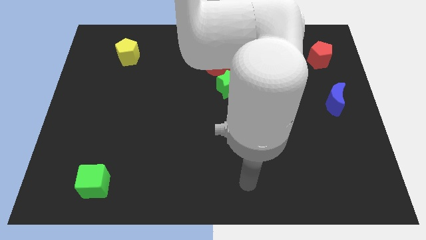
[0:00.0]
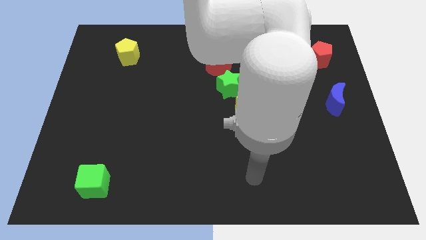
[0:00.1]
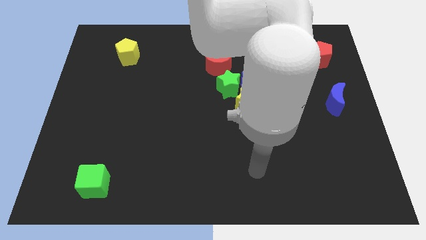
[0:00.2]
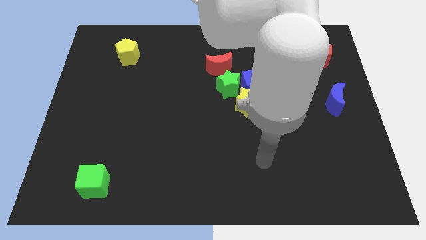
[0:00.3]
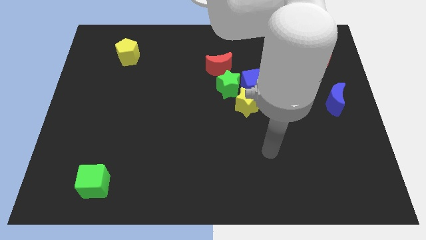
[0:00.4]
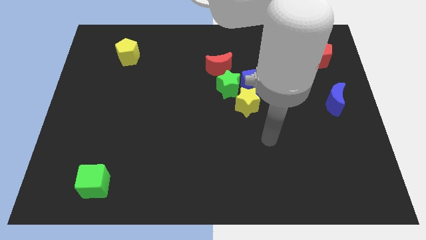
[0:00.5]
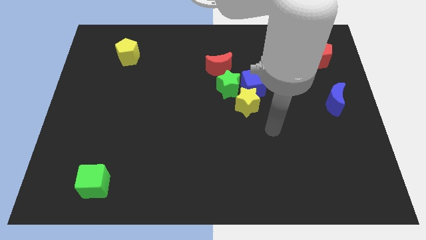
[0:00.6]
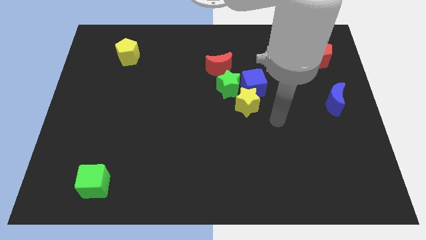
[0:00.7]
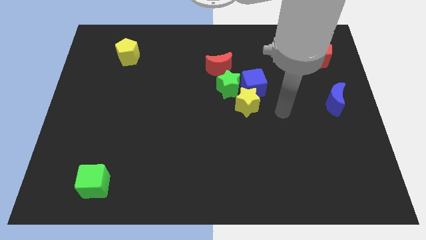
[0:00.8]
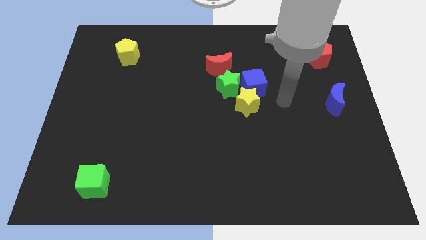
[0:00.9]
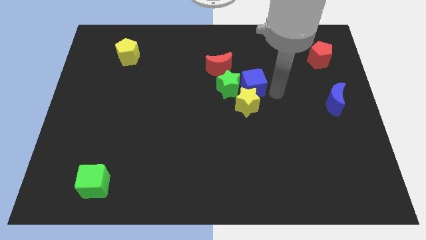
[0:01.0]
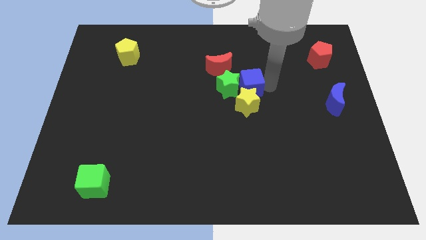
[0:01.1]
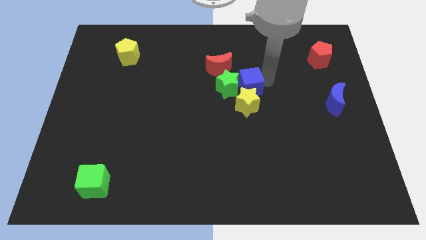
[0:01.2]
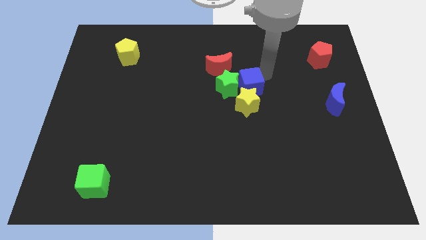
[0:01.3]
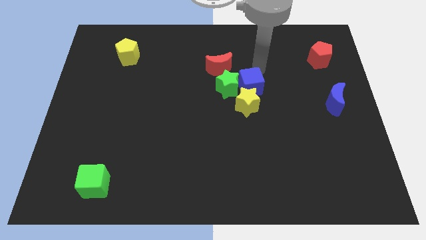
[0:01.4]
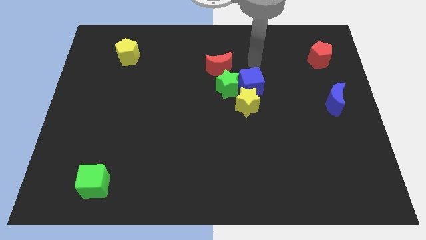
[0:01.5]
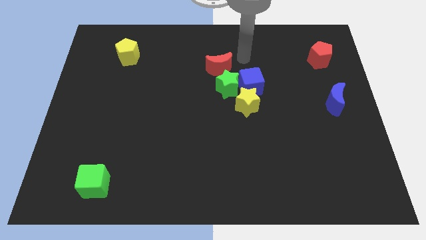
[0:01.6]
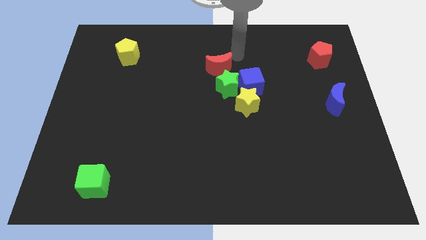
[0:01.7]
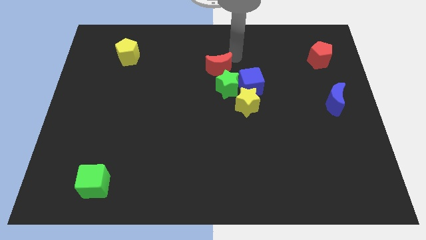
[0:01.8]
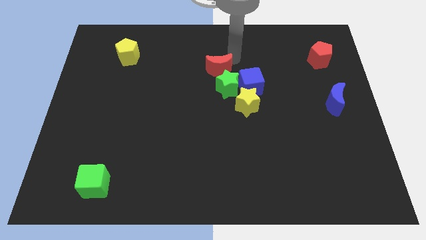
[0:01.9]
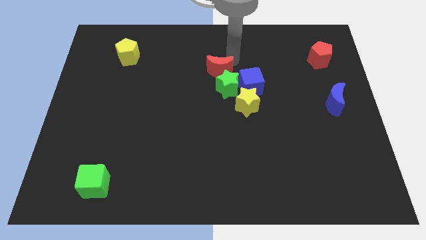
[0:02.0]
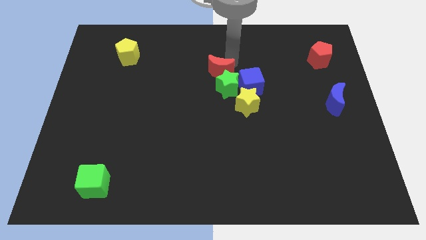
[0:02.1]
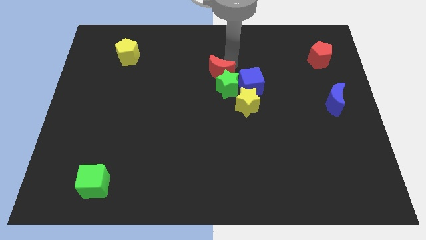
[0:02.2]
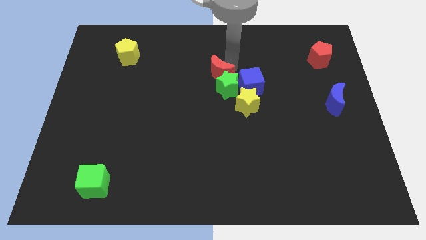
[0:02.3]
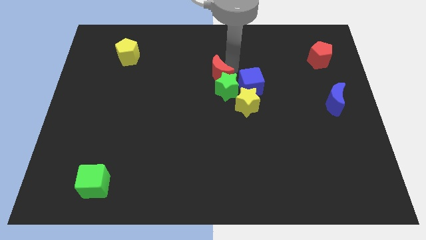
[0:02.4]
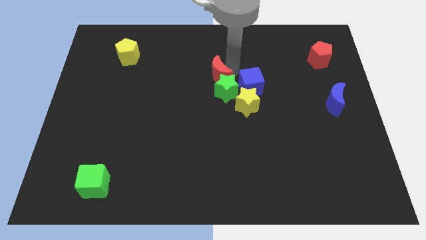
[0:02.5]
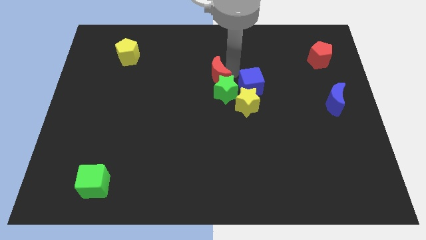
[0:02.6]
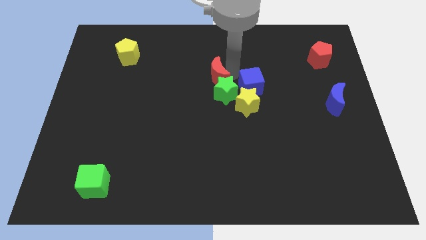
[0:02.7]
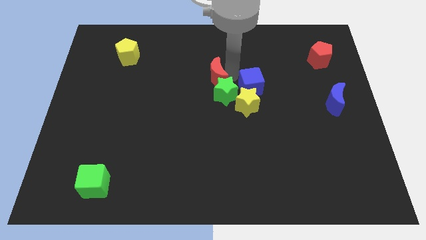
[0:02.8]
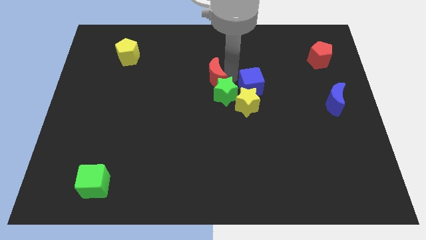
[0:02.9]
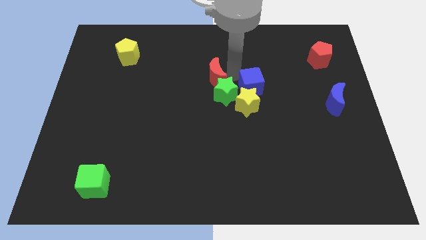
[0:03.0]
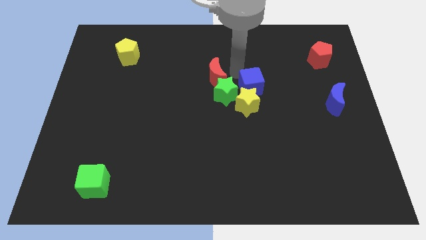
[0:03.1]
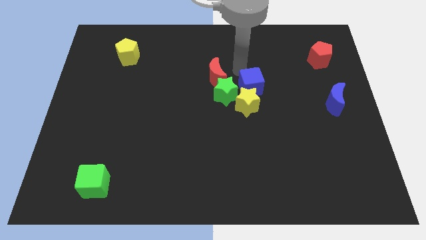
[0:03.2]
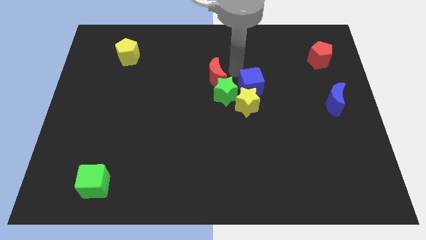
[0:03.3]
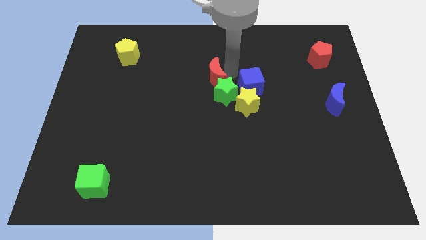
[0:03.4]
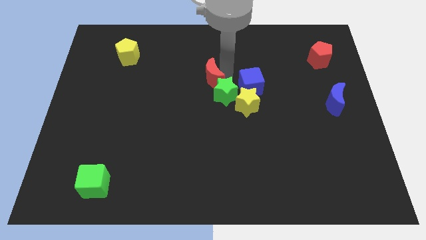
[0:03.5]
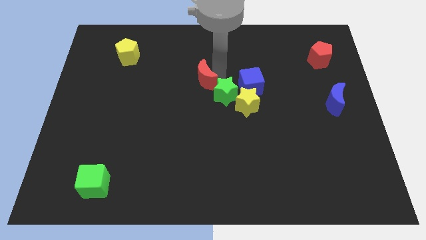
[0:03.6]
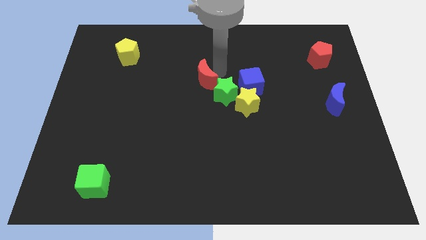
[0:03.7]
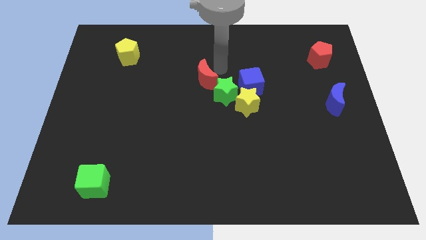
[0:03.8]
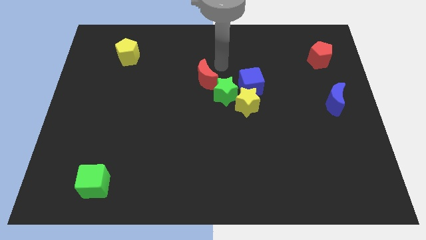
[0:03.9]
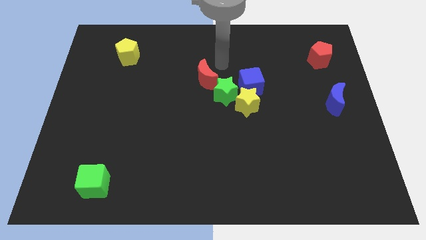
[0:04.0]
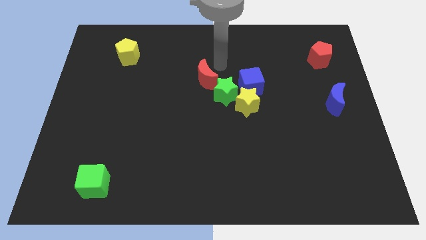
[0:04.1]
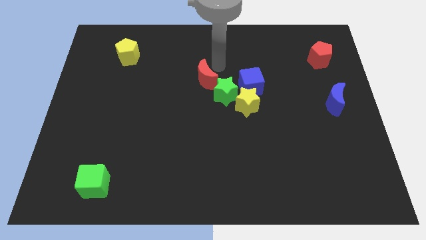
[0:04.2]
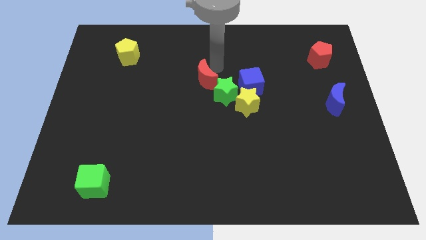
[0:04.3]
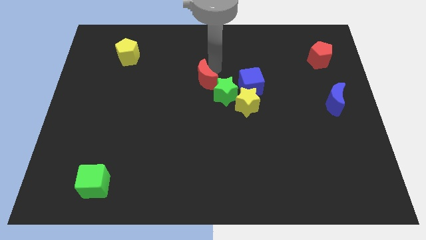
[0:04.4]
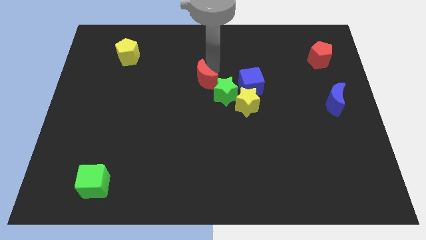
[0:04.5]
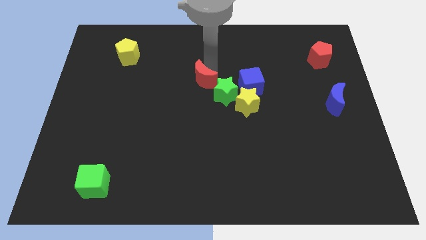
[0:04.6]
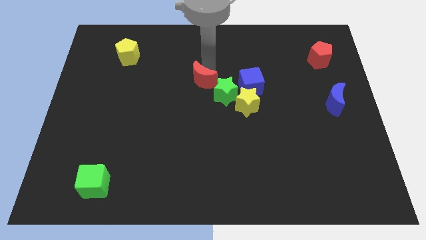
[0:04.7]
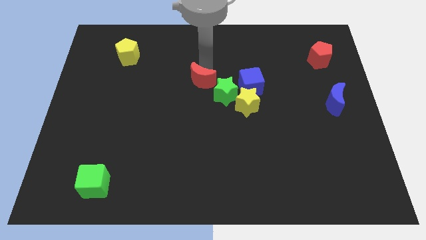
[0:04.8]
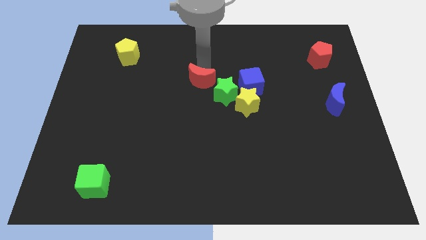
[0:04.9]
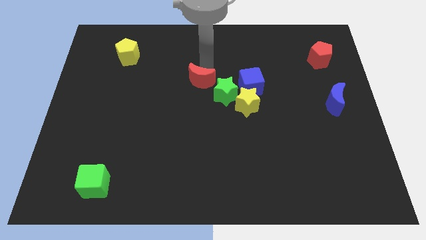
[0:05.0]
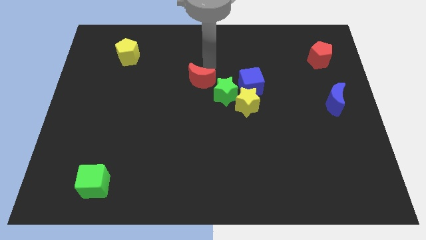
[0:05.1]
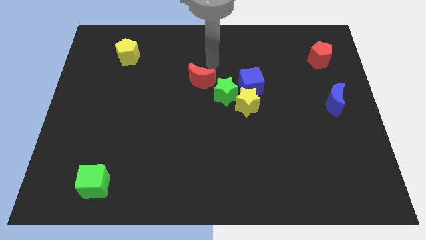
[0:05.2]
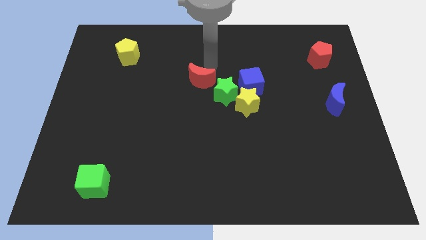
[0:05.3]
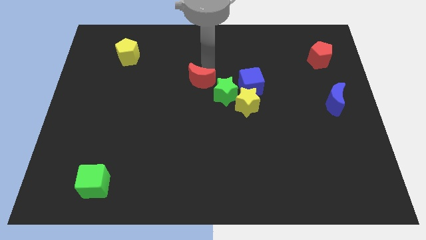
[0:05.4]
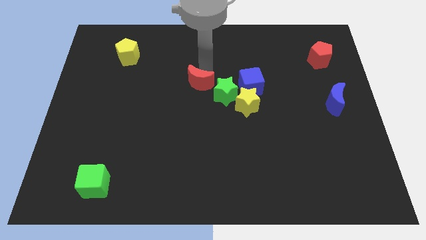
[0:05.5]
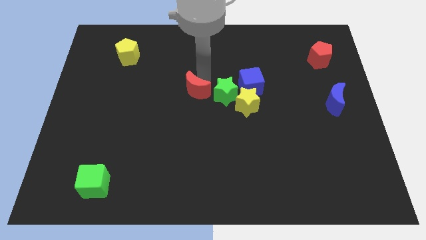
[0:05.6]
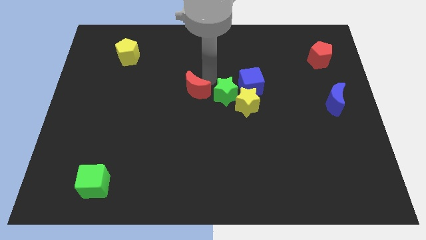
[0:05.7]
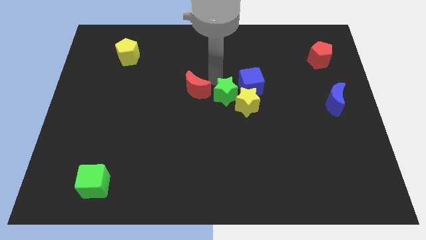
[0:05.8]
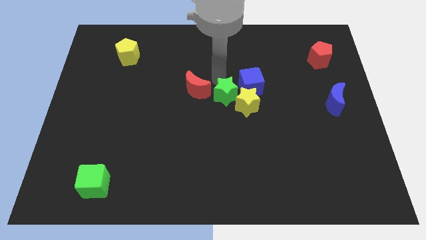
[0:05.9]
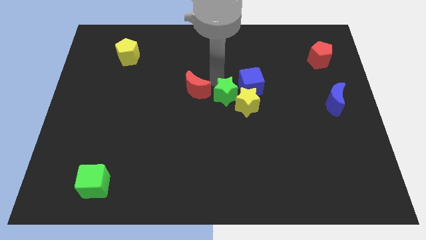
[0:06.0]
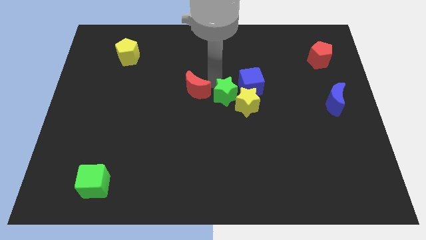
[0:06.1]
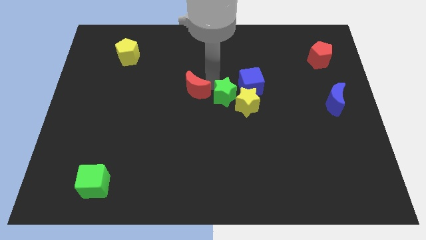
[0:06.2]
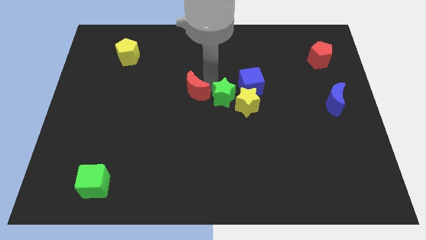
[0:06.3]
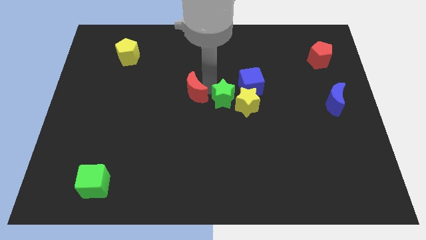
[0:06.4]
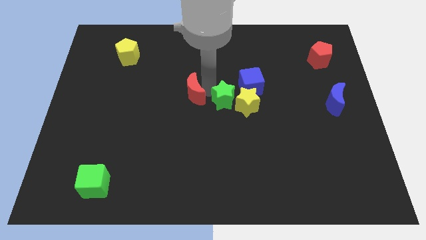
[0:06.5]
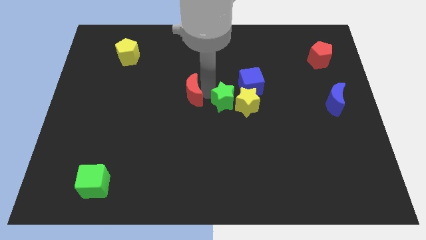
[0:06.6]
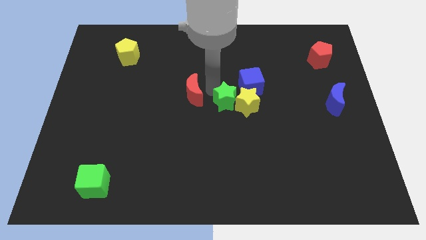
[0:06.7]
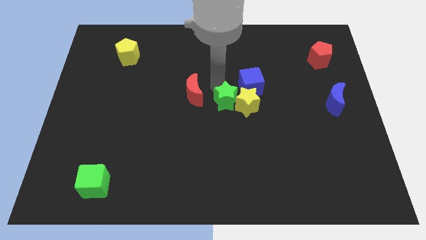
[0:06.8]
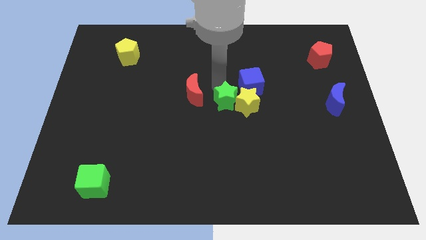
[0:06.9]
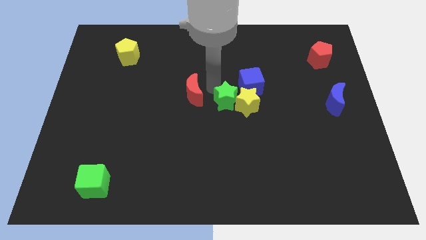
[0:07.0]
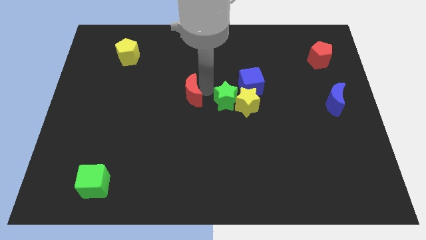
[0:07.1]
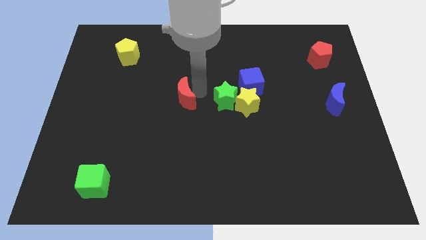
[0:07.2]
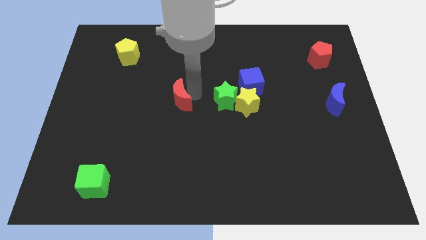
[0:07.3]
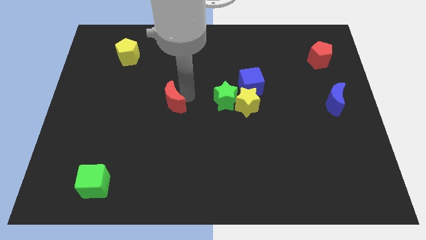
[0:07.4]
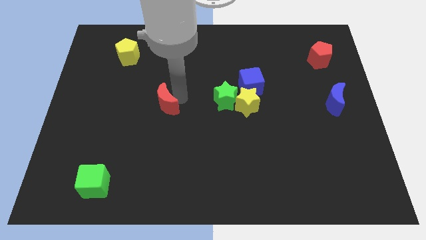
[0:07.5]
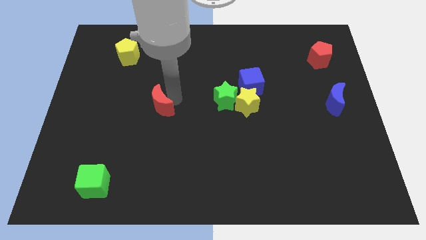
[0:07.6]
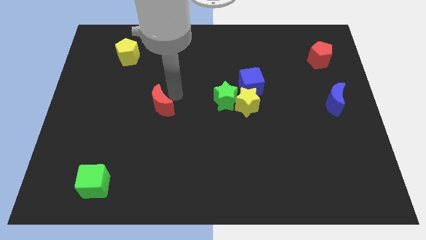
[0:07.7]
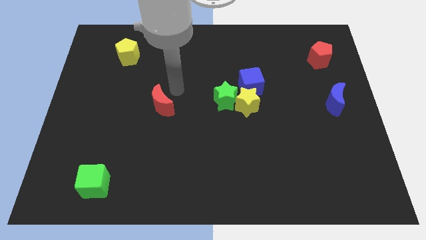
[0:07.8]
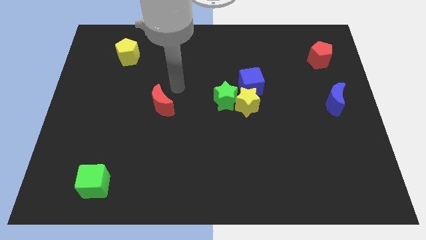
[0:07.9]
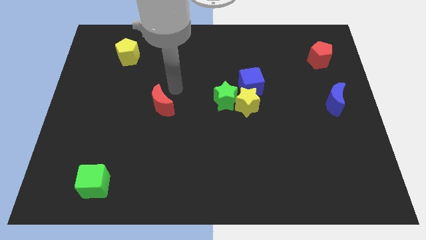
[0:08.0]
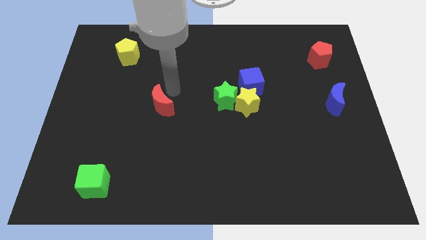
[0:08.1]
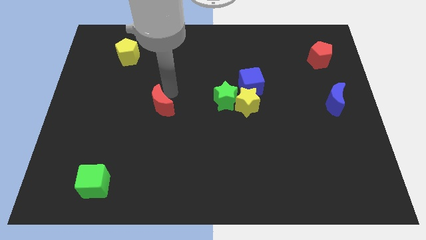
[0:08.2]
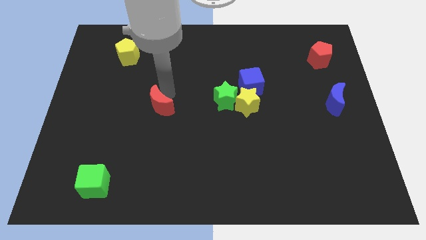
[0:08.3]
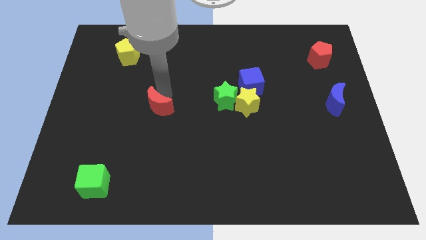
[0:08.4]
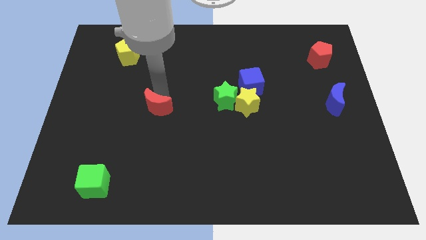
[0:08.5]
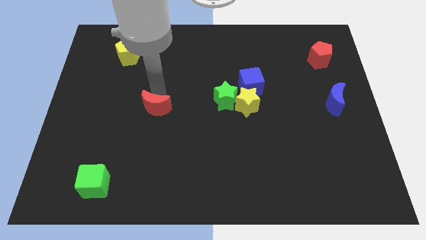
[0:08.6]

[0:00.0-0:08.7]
move the red moon downwards and left
